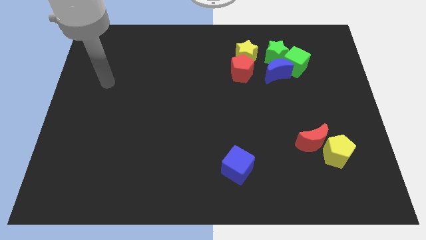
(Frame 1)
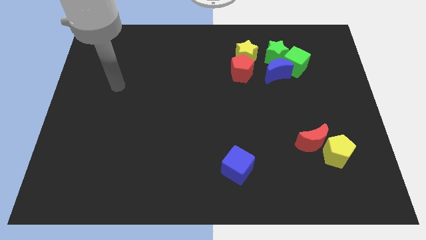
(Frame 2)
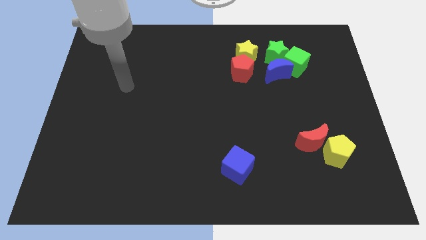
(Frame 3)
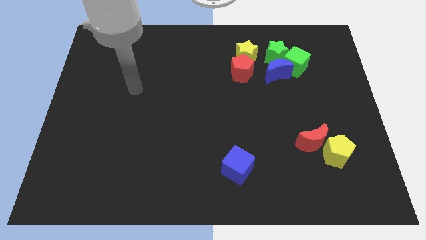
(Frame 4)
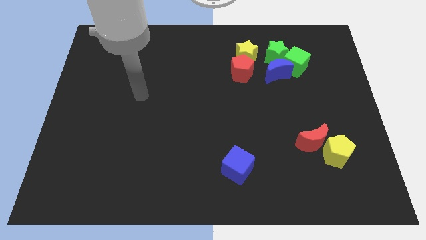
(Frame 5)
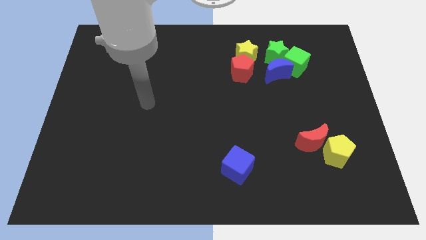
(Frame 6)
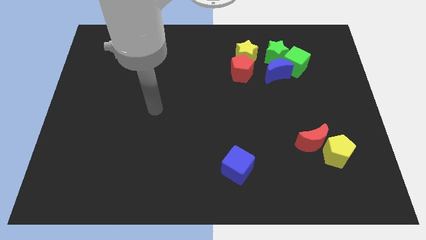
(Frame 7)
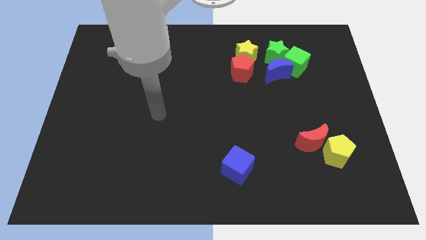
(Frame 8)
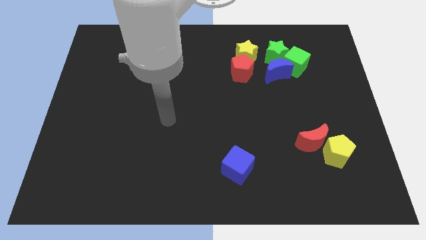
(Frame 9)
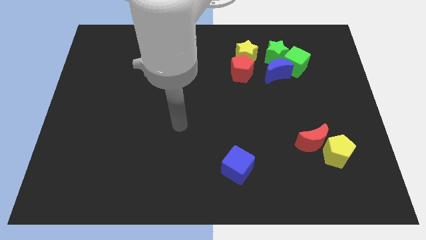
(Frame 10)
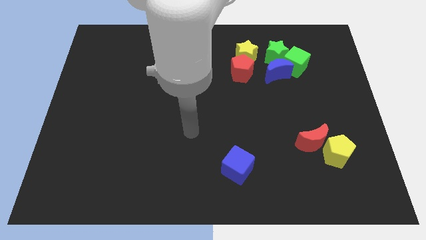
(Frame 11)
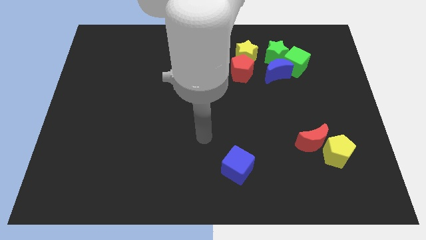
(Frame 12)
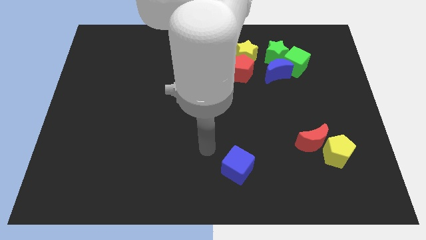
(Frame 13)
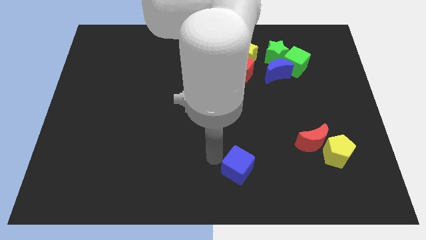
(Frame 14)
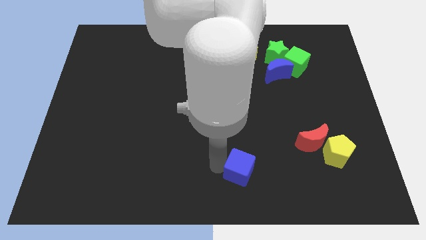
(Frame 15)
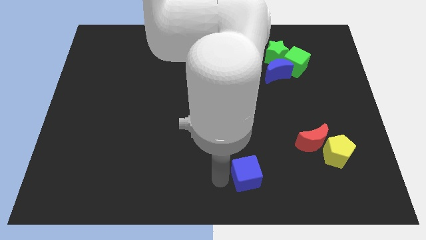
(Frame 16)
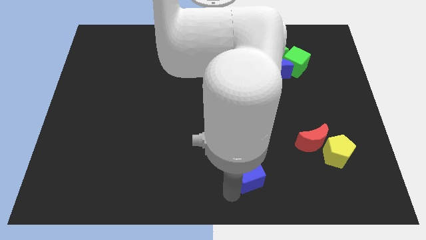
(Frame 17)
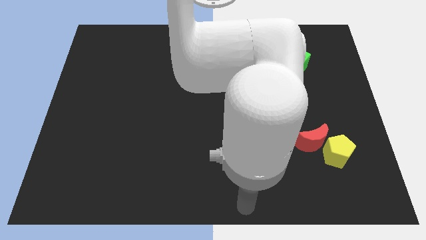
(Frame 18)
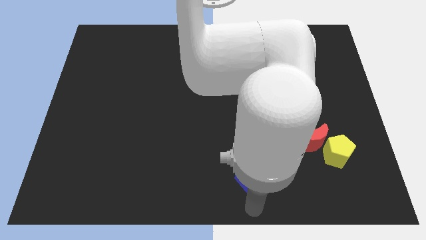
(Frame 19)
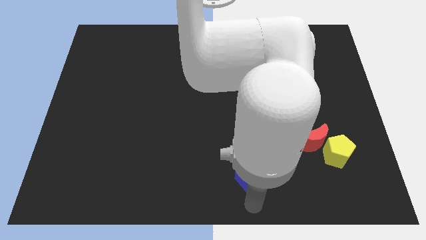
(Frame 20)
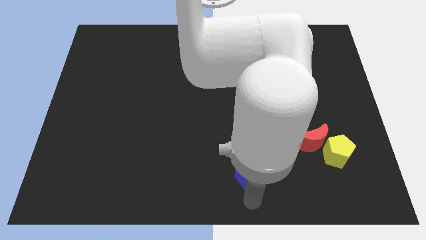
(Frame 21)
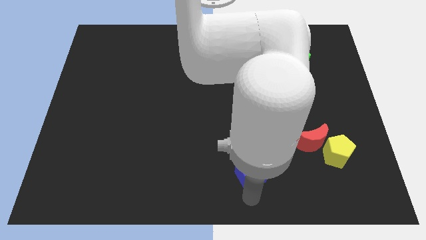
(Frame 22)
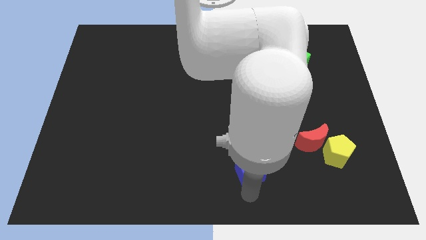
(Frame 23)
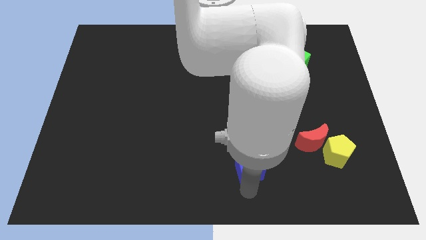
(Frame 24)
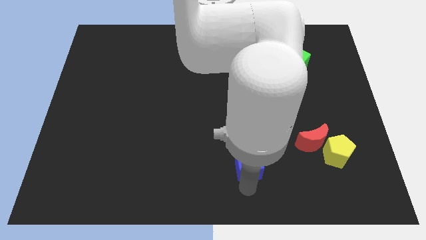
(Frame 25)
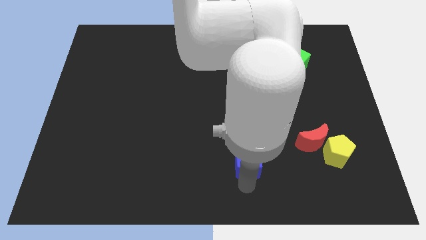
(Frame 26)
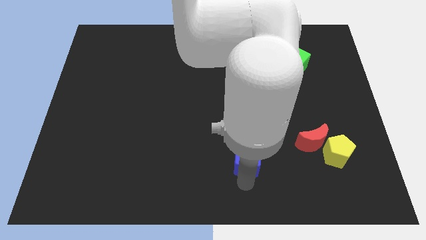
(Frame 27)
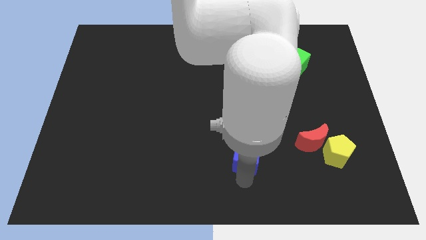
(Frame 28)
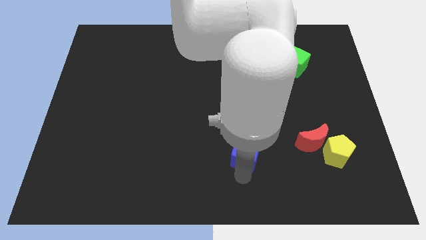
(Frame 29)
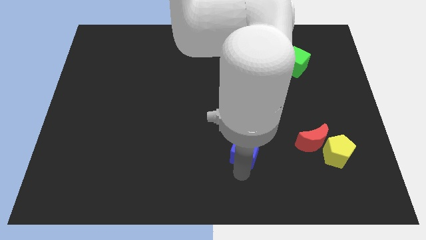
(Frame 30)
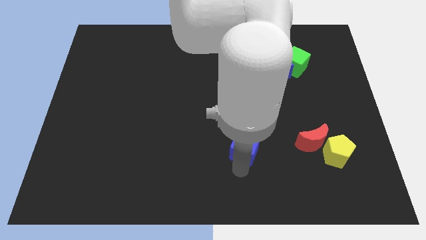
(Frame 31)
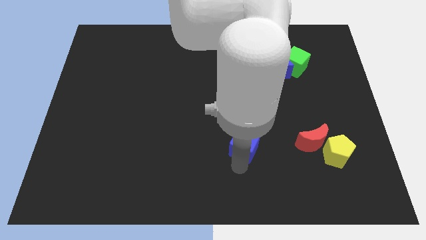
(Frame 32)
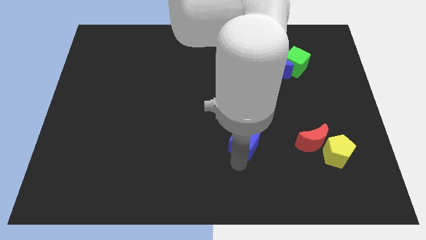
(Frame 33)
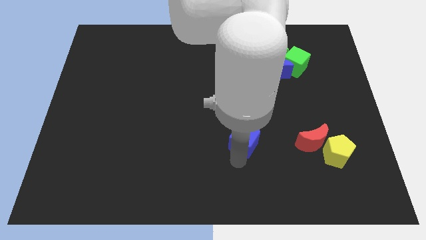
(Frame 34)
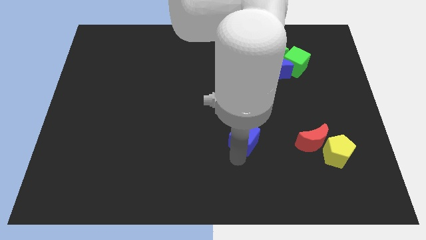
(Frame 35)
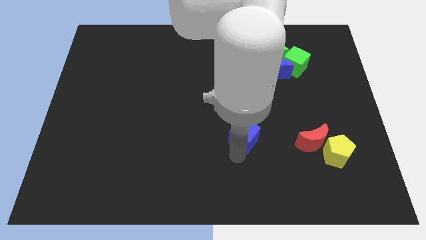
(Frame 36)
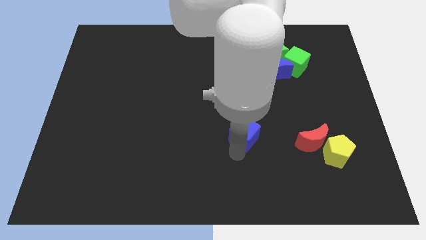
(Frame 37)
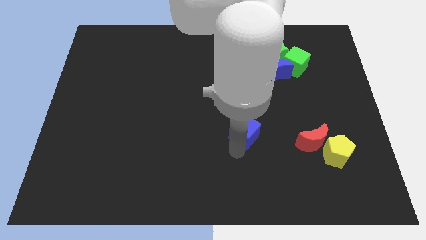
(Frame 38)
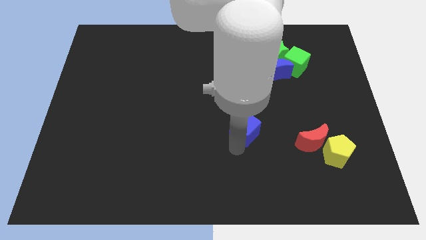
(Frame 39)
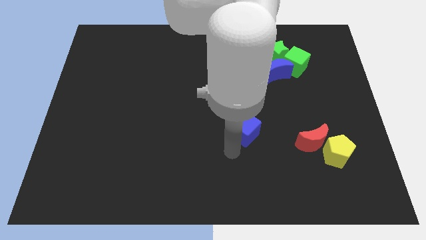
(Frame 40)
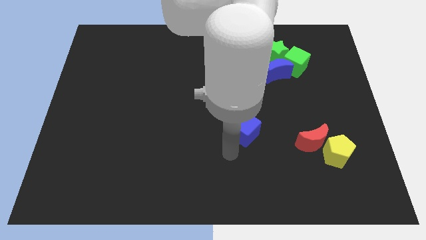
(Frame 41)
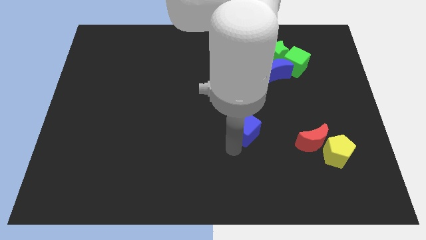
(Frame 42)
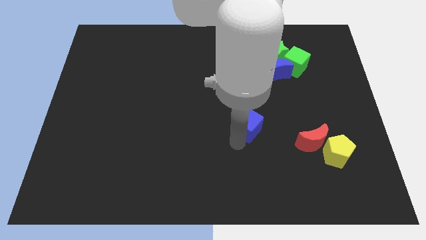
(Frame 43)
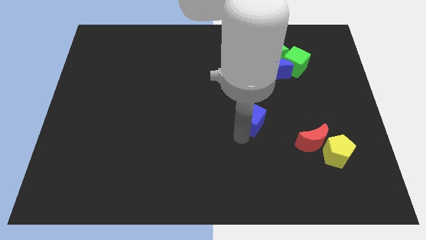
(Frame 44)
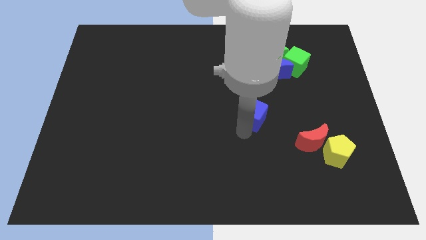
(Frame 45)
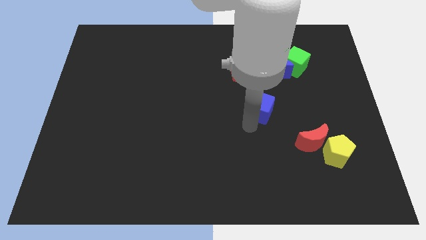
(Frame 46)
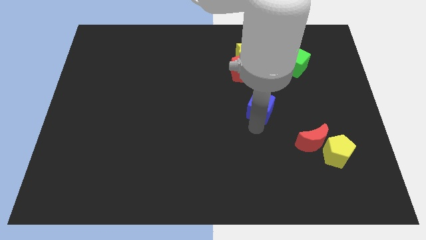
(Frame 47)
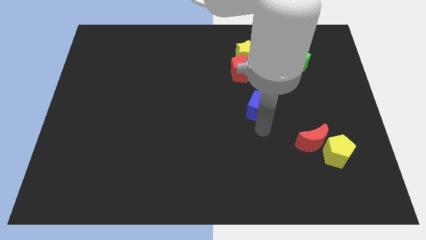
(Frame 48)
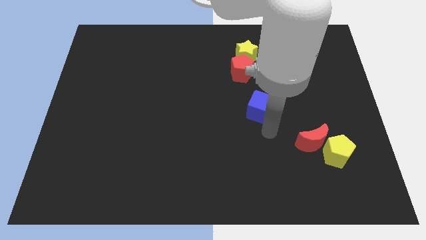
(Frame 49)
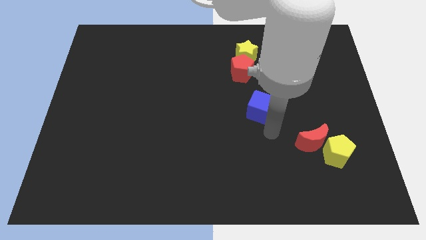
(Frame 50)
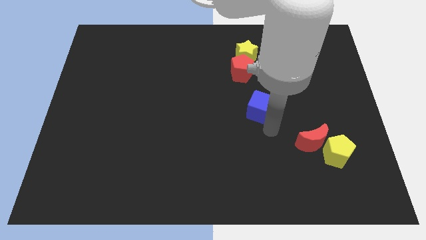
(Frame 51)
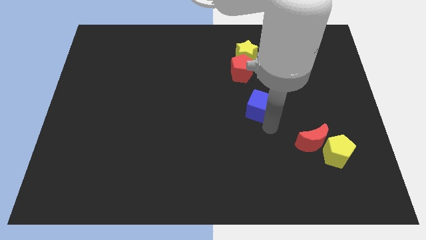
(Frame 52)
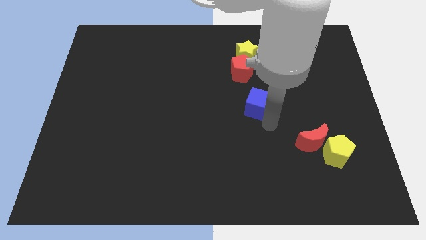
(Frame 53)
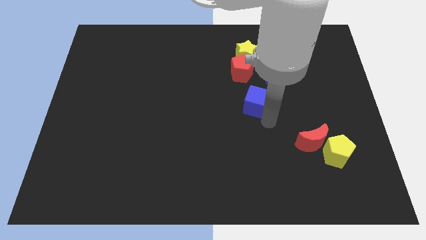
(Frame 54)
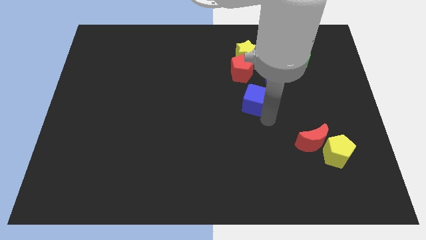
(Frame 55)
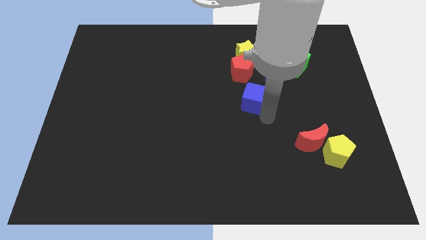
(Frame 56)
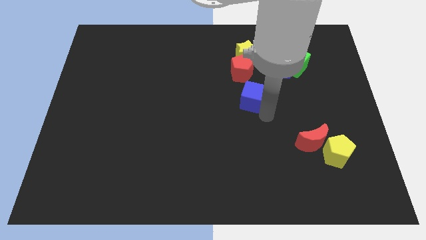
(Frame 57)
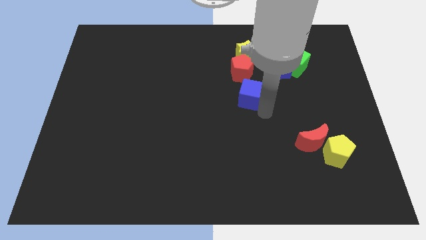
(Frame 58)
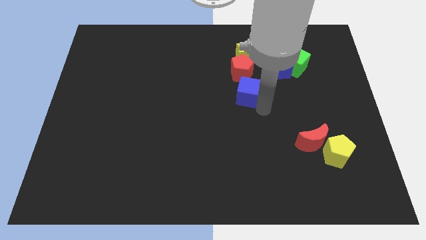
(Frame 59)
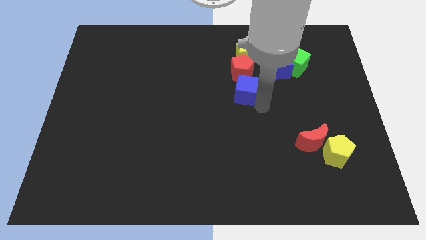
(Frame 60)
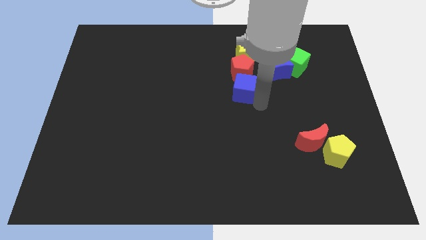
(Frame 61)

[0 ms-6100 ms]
slide the blue cube towards the red pentagon

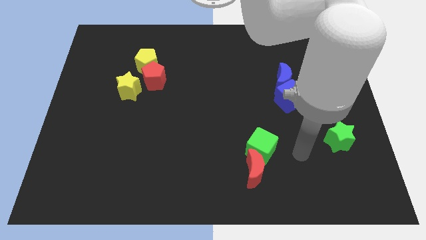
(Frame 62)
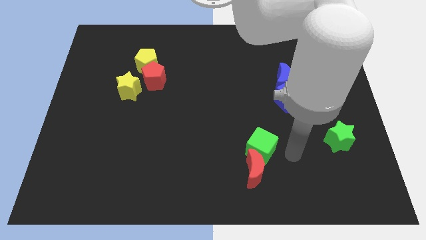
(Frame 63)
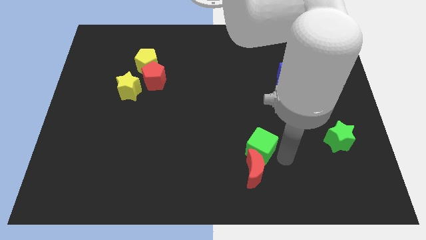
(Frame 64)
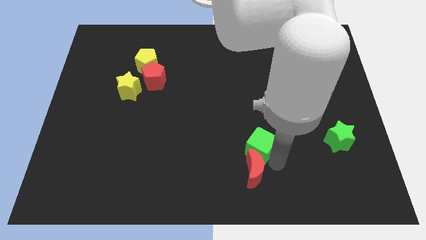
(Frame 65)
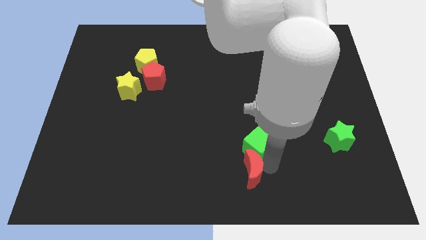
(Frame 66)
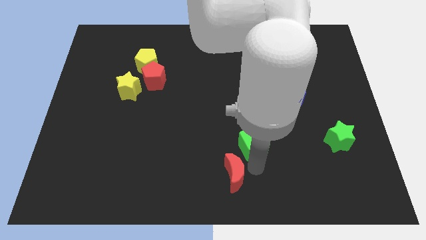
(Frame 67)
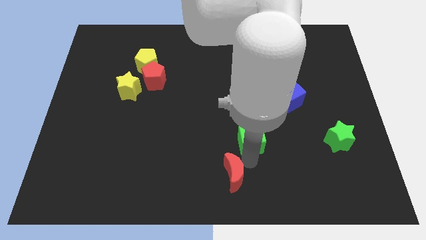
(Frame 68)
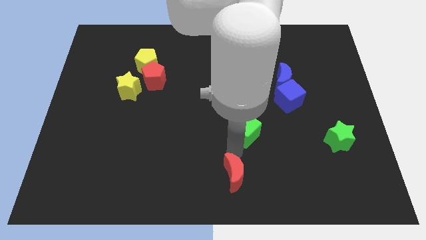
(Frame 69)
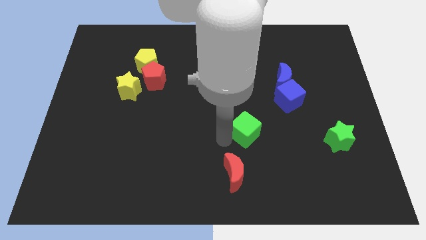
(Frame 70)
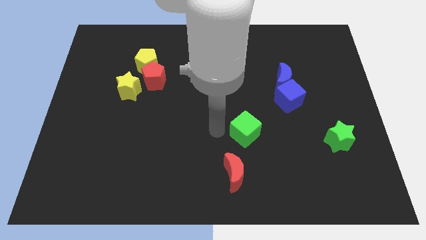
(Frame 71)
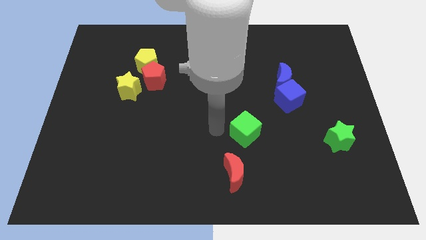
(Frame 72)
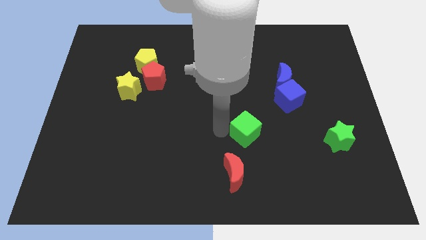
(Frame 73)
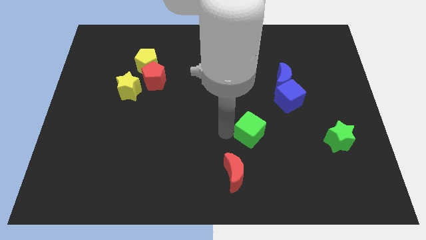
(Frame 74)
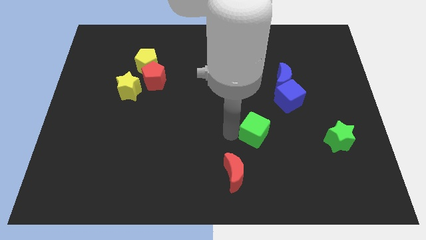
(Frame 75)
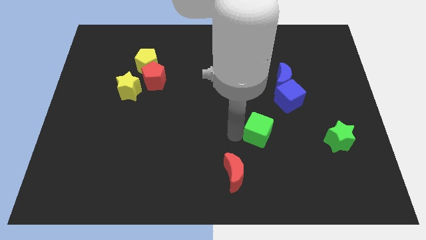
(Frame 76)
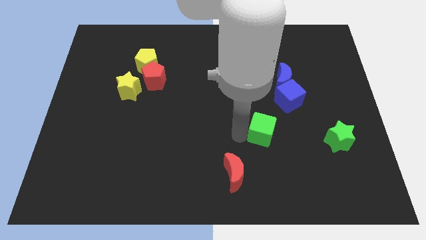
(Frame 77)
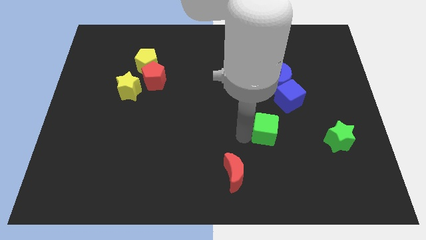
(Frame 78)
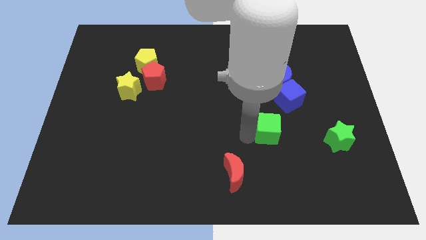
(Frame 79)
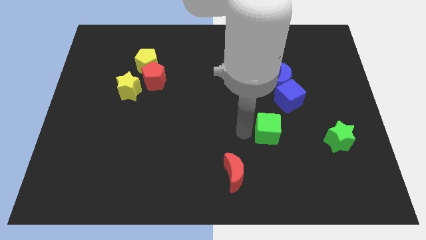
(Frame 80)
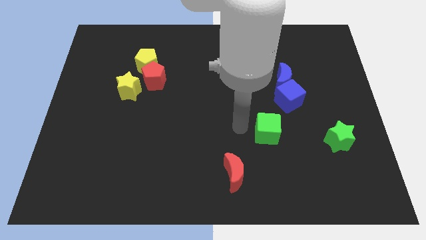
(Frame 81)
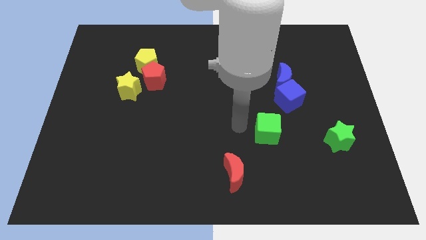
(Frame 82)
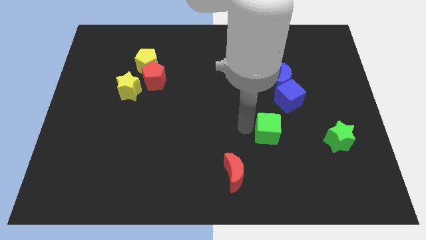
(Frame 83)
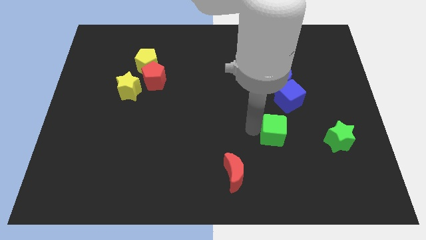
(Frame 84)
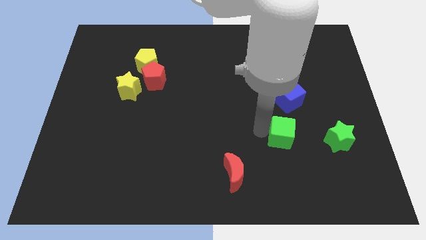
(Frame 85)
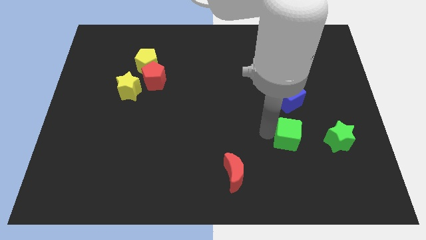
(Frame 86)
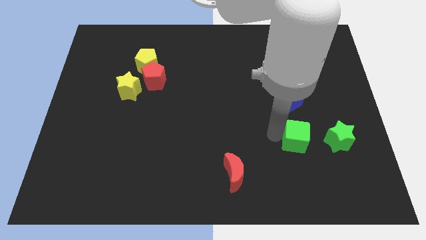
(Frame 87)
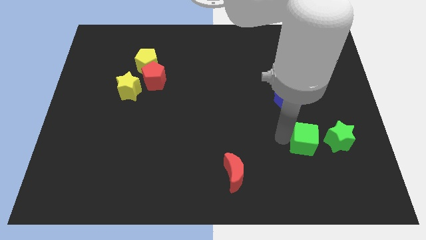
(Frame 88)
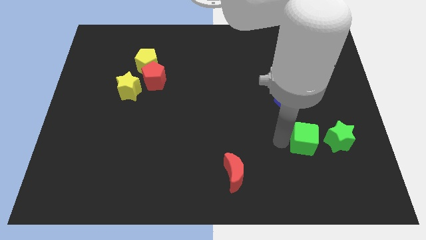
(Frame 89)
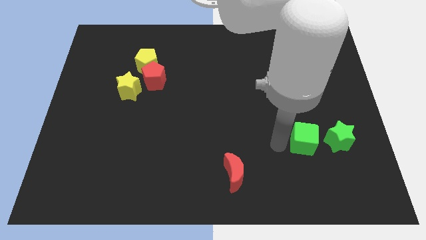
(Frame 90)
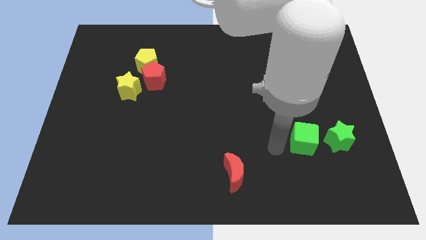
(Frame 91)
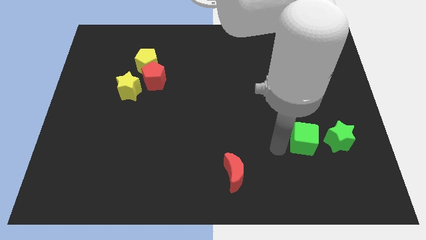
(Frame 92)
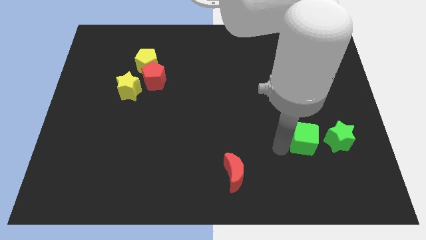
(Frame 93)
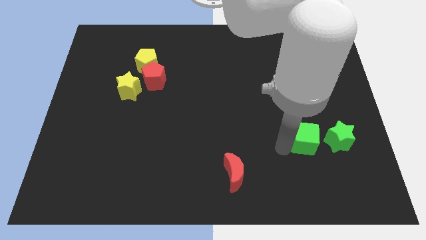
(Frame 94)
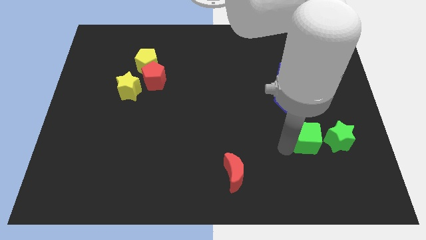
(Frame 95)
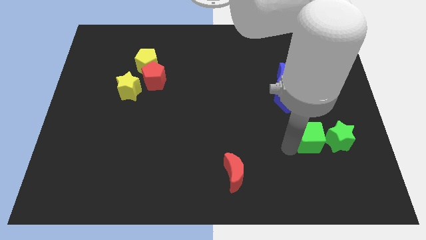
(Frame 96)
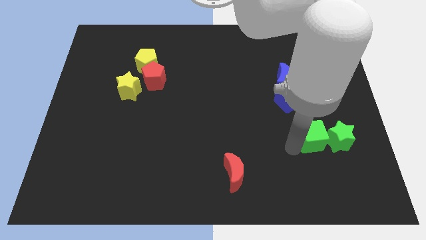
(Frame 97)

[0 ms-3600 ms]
slide the green cube to the green star
